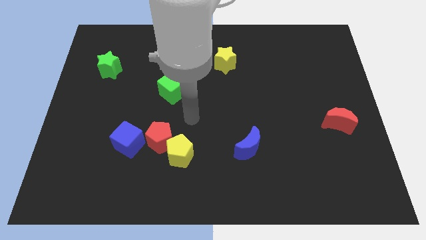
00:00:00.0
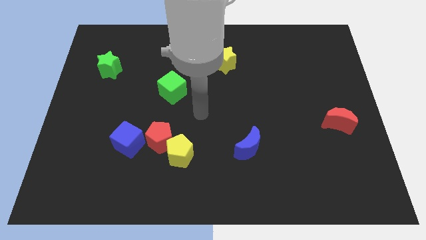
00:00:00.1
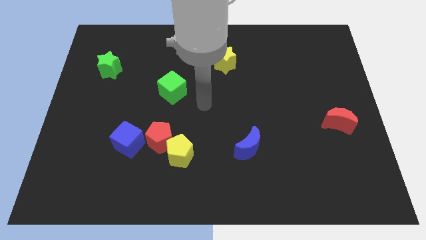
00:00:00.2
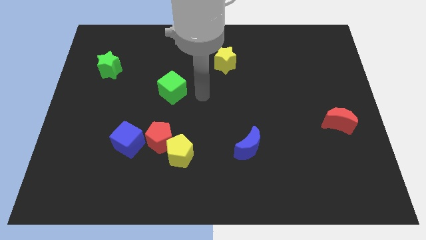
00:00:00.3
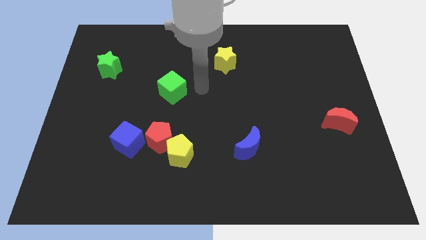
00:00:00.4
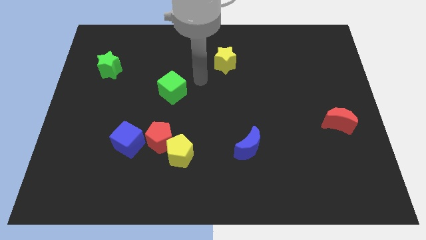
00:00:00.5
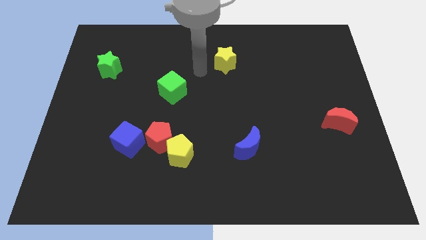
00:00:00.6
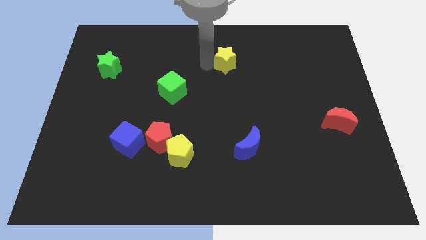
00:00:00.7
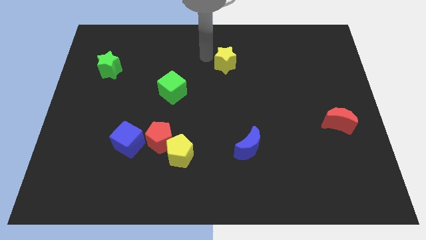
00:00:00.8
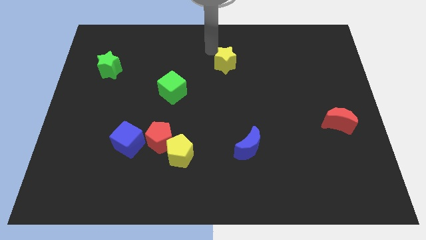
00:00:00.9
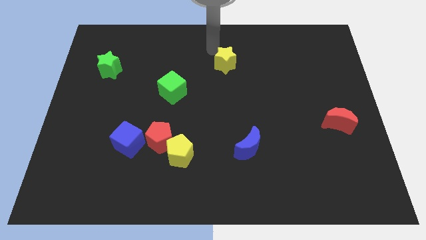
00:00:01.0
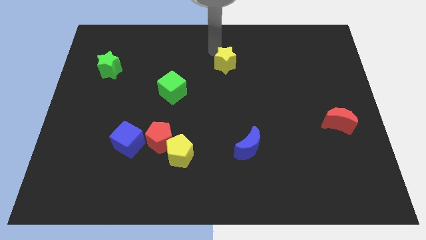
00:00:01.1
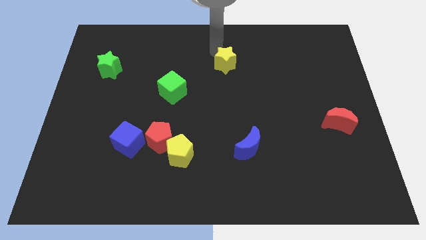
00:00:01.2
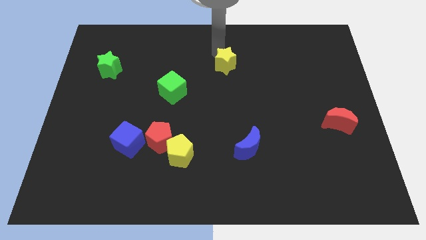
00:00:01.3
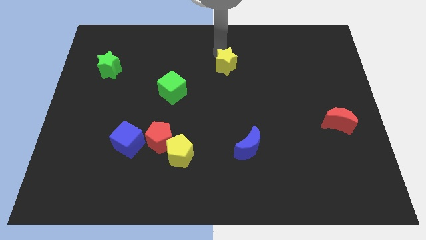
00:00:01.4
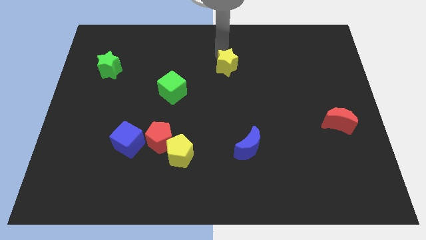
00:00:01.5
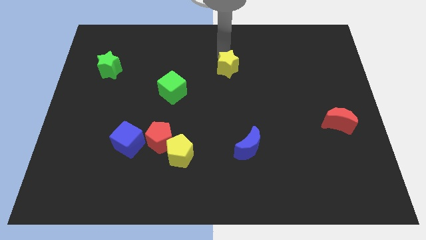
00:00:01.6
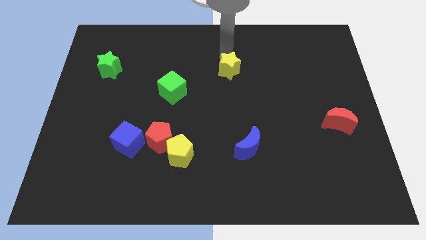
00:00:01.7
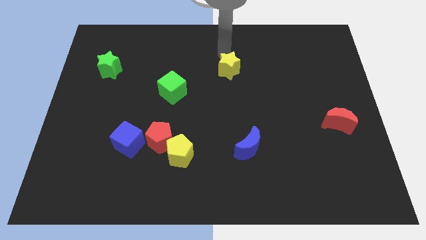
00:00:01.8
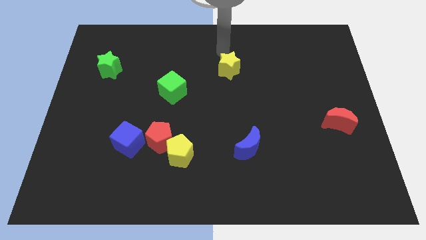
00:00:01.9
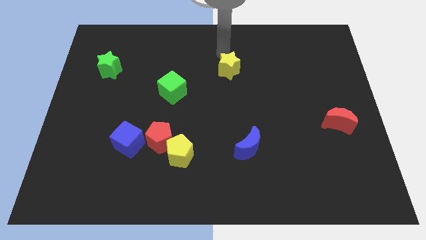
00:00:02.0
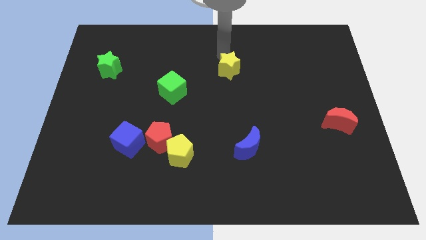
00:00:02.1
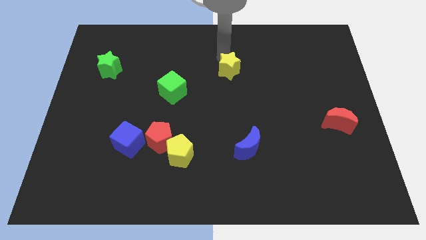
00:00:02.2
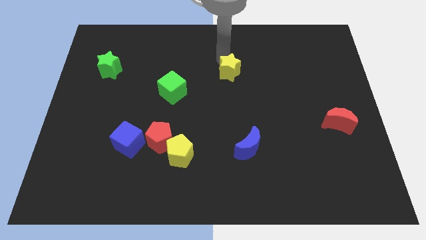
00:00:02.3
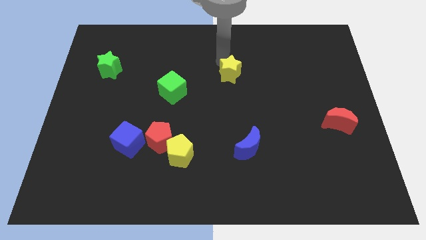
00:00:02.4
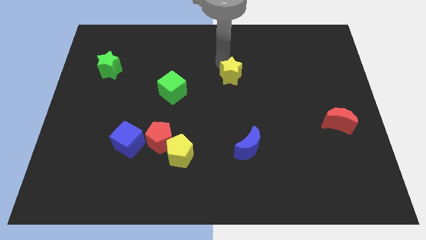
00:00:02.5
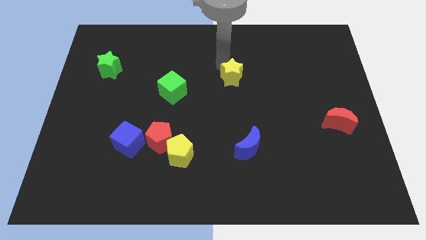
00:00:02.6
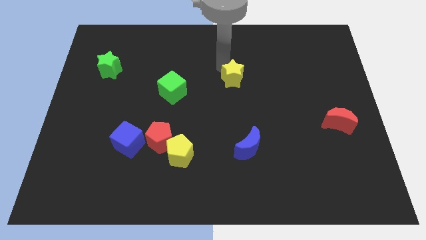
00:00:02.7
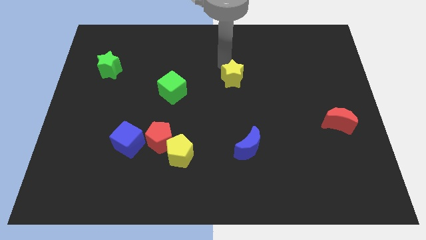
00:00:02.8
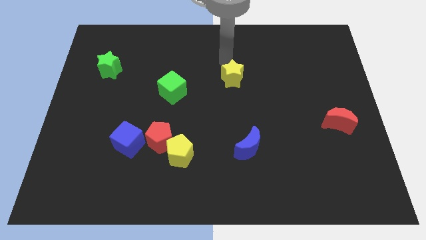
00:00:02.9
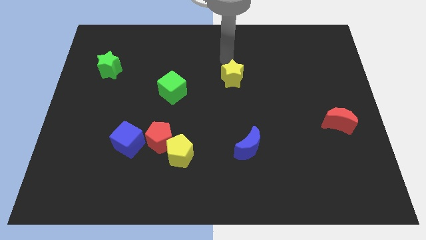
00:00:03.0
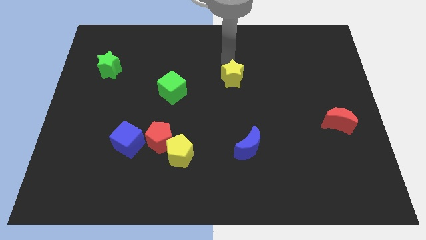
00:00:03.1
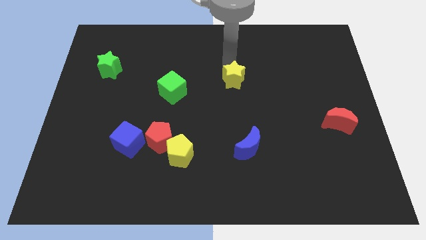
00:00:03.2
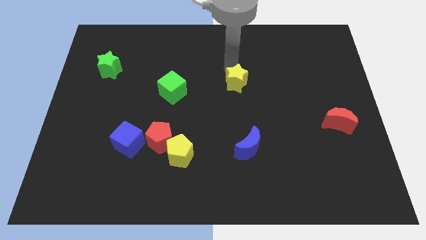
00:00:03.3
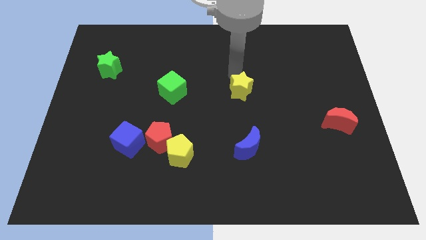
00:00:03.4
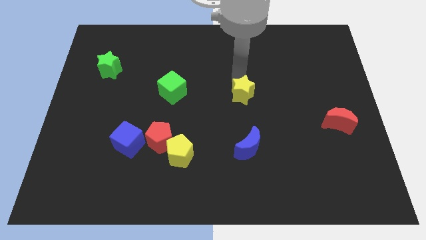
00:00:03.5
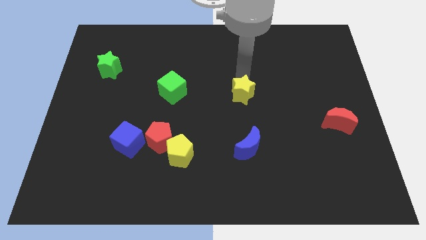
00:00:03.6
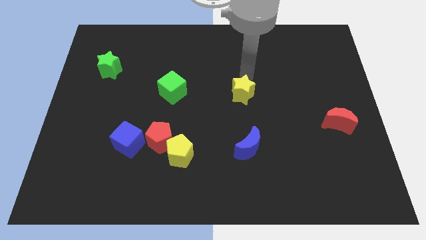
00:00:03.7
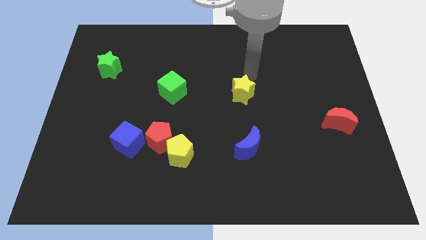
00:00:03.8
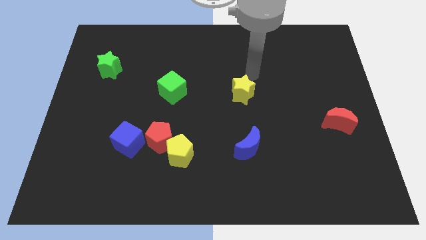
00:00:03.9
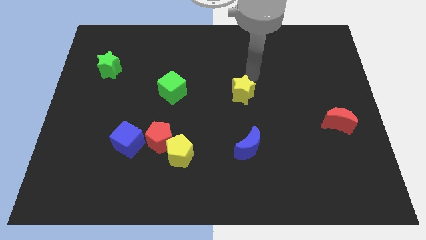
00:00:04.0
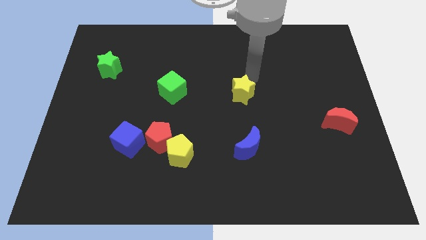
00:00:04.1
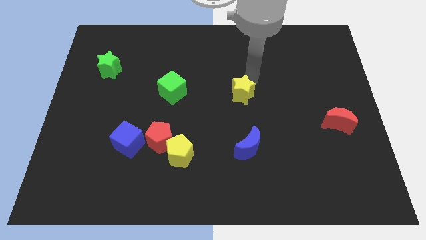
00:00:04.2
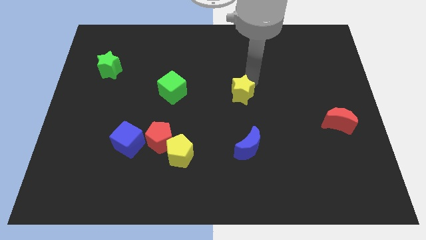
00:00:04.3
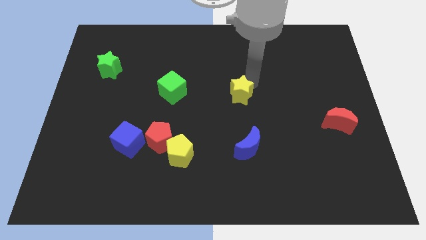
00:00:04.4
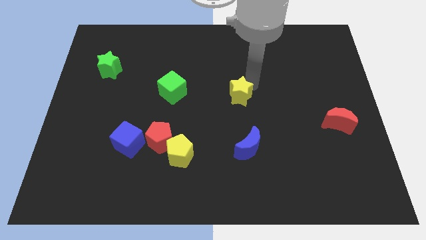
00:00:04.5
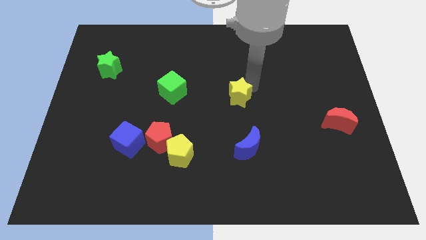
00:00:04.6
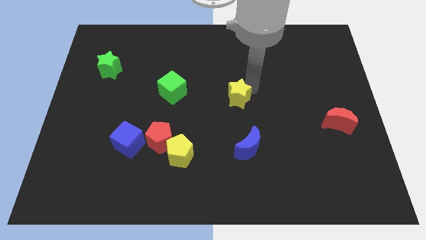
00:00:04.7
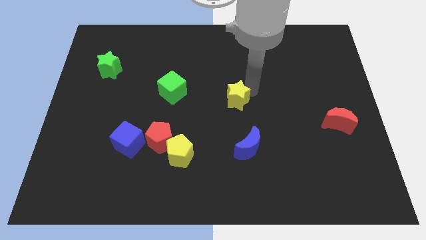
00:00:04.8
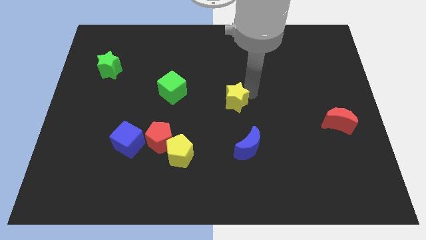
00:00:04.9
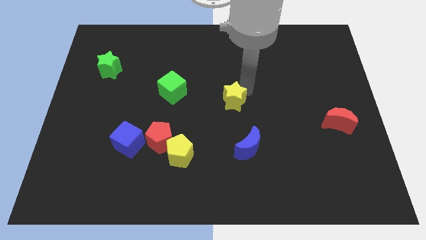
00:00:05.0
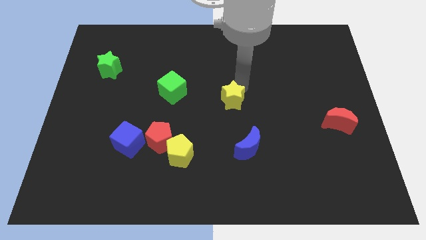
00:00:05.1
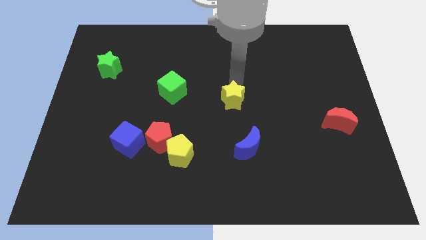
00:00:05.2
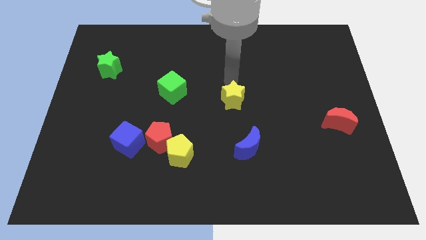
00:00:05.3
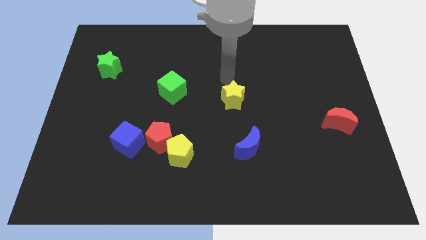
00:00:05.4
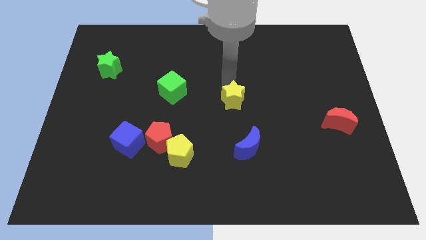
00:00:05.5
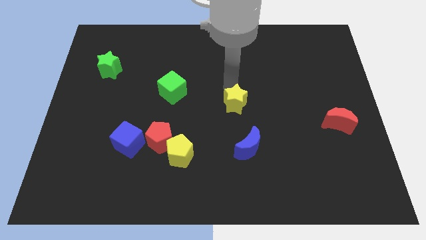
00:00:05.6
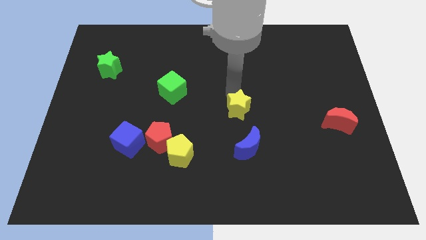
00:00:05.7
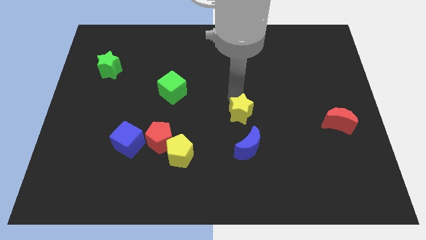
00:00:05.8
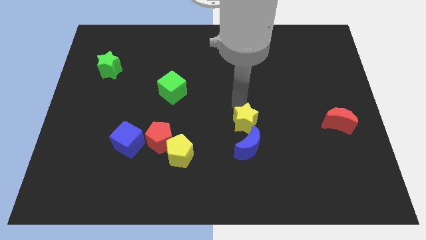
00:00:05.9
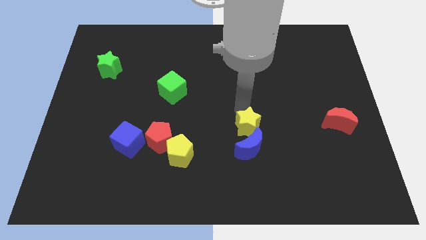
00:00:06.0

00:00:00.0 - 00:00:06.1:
push the yellow star close to the blue moon
